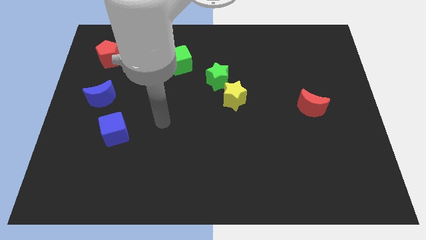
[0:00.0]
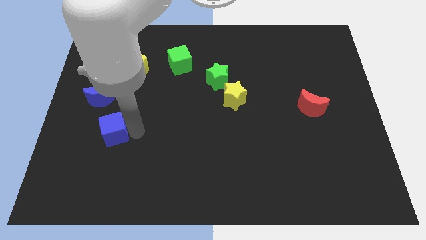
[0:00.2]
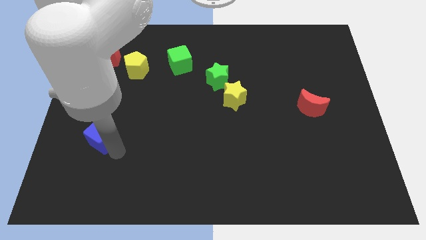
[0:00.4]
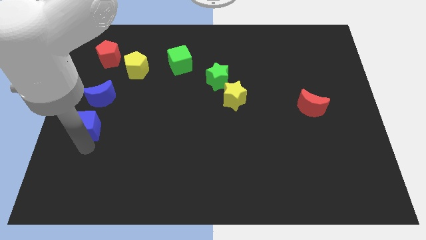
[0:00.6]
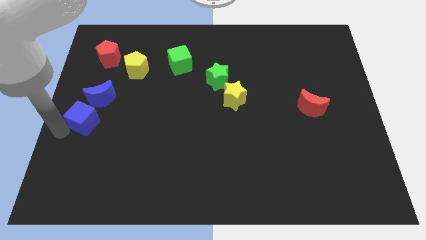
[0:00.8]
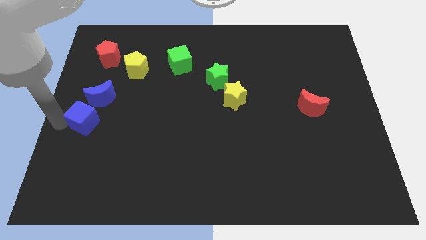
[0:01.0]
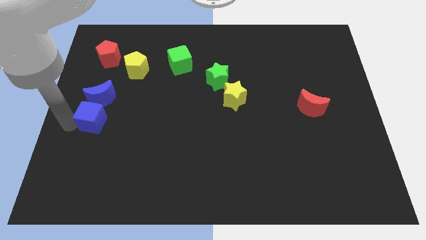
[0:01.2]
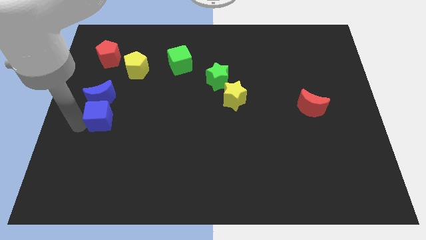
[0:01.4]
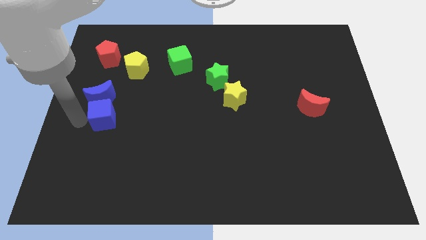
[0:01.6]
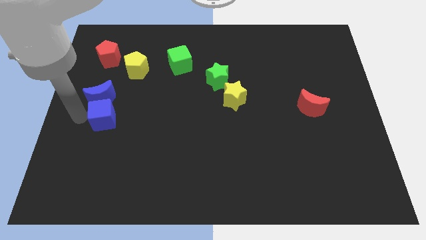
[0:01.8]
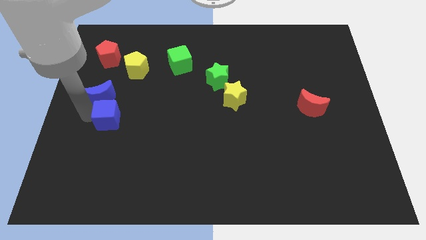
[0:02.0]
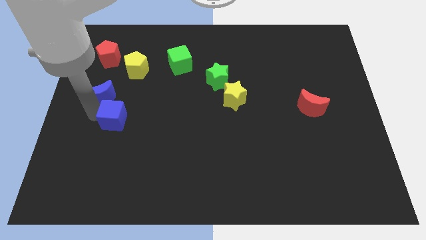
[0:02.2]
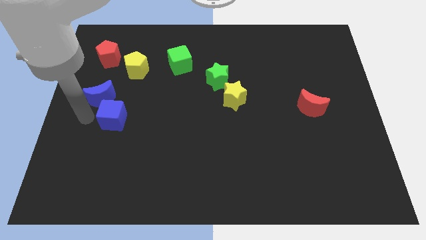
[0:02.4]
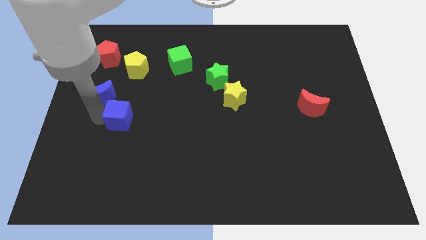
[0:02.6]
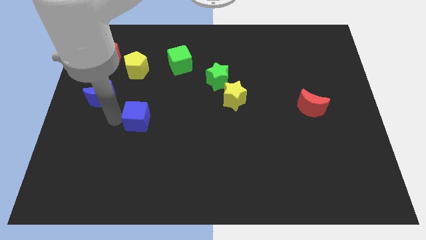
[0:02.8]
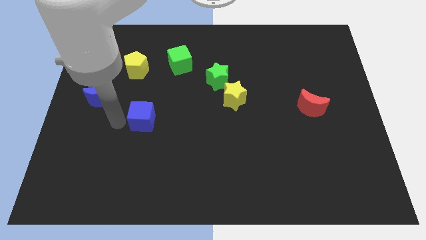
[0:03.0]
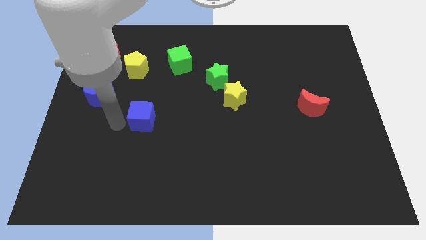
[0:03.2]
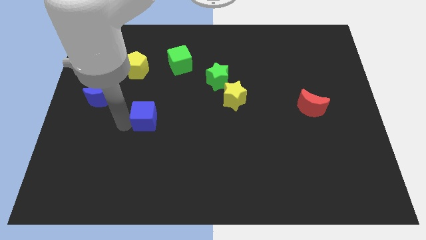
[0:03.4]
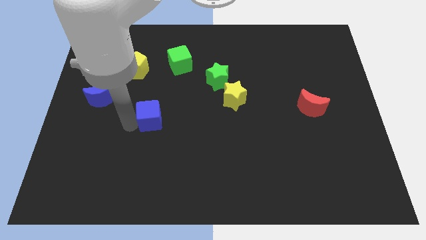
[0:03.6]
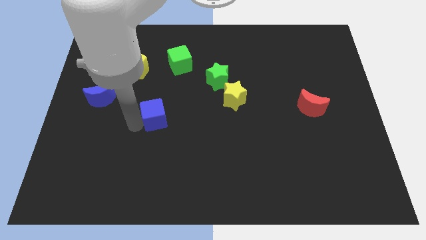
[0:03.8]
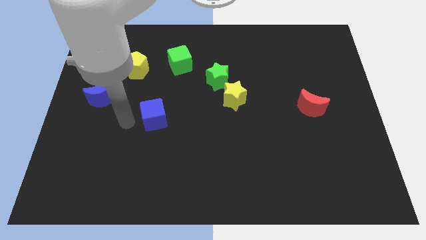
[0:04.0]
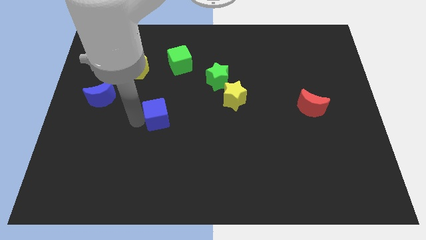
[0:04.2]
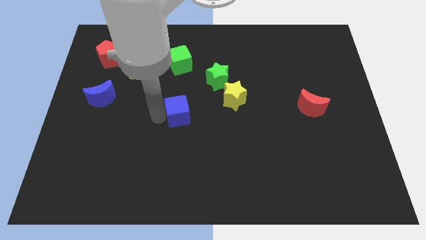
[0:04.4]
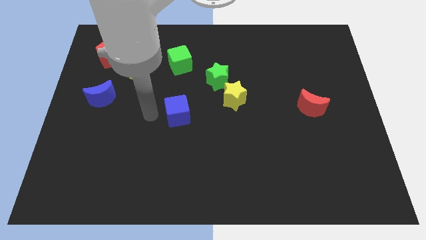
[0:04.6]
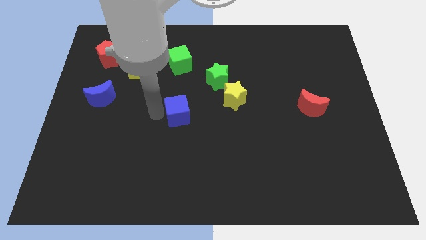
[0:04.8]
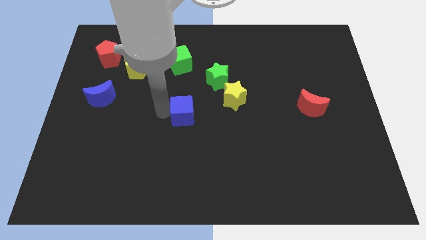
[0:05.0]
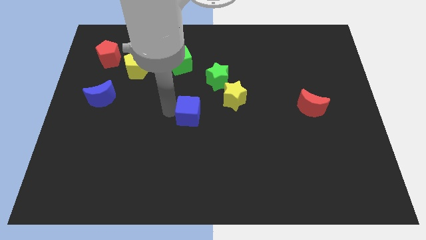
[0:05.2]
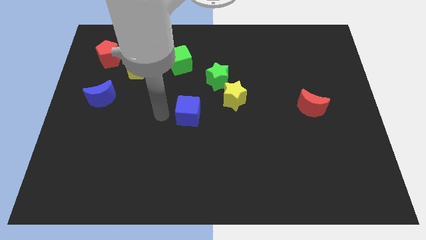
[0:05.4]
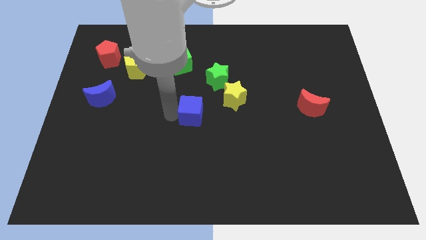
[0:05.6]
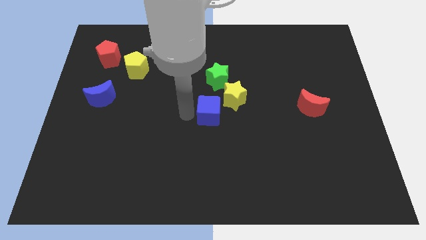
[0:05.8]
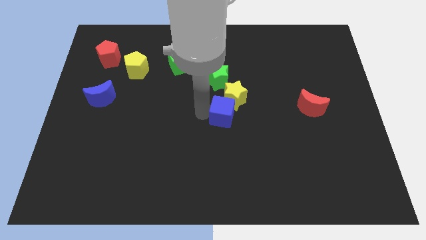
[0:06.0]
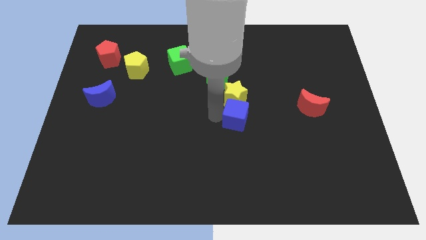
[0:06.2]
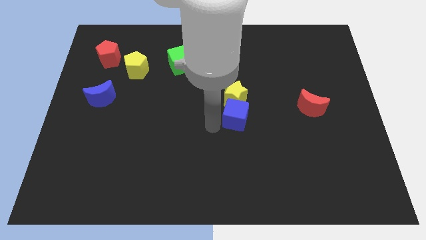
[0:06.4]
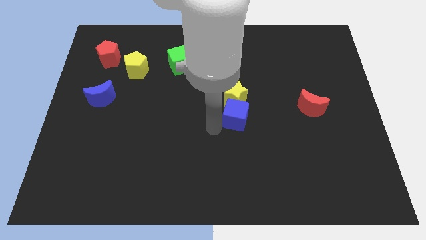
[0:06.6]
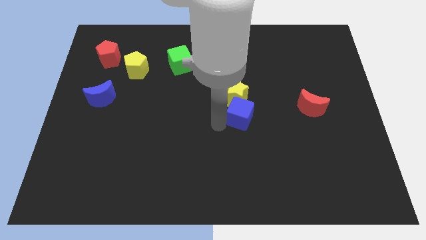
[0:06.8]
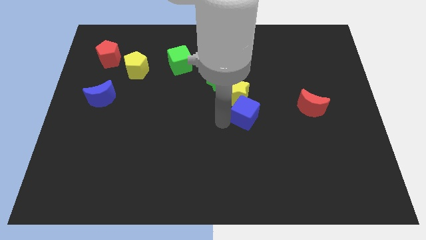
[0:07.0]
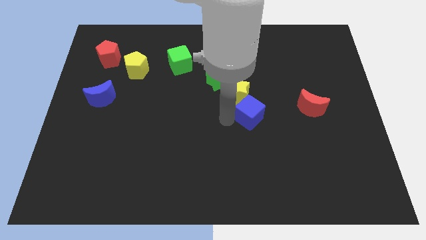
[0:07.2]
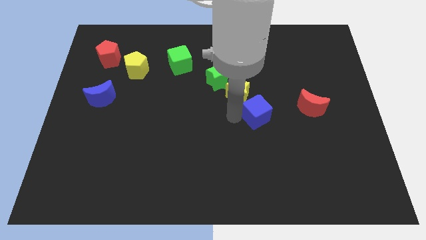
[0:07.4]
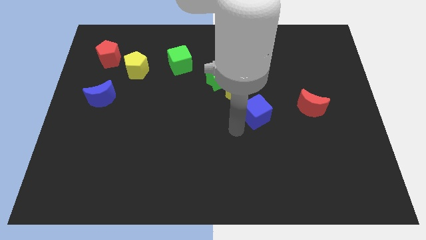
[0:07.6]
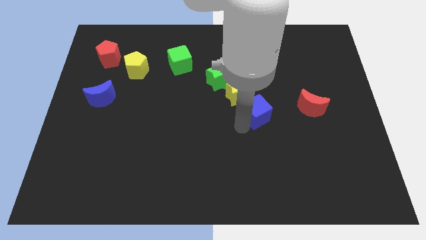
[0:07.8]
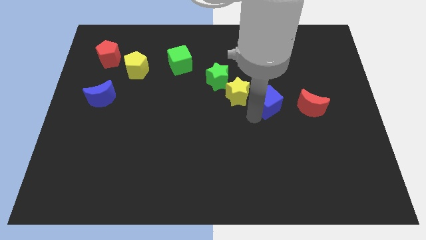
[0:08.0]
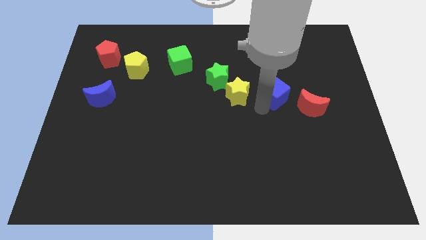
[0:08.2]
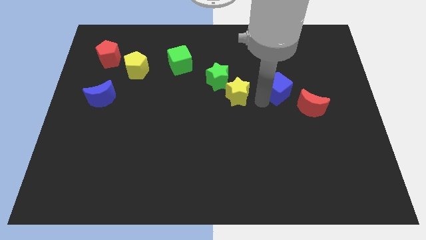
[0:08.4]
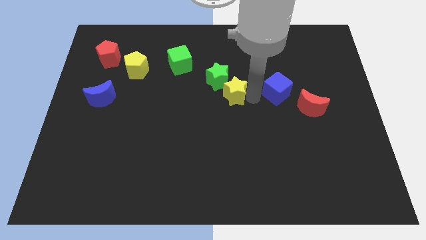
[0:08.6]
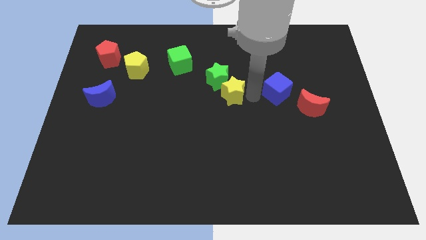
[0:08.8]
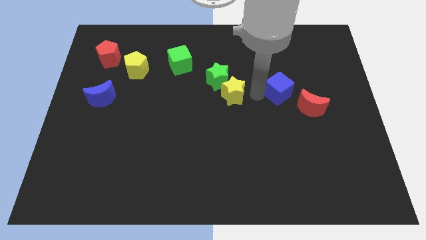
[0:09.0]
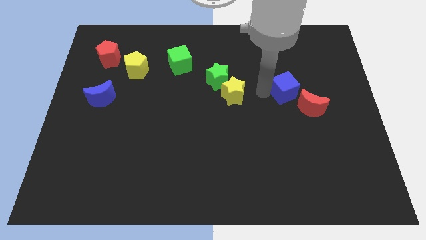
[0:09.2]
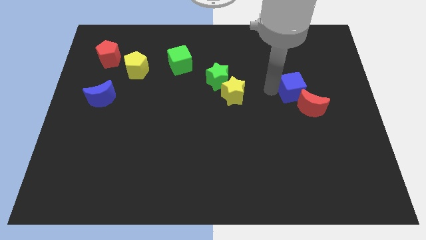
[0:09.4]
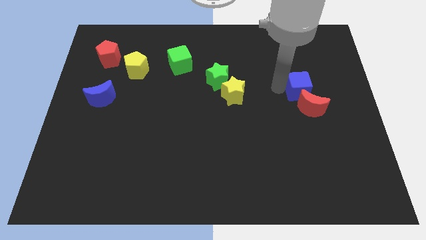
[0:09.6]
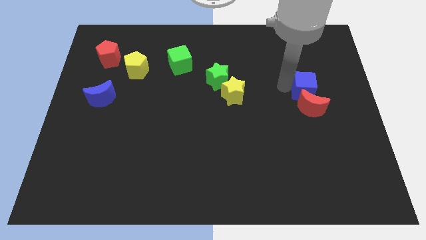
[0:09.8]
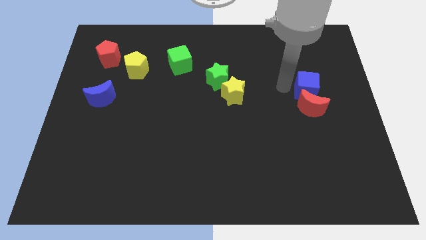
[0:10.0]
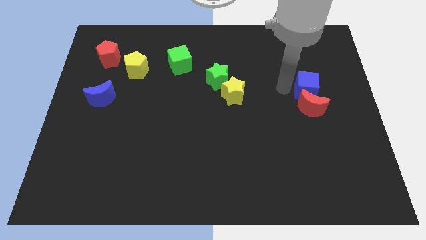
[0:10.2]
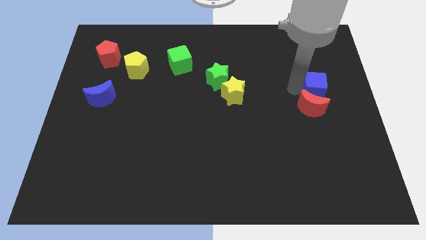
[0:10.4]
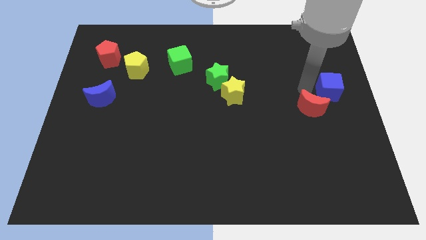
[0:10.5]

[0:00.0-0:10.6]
push the blue cube to the center right

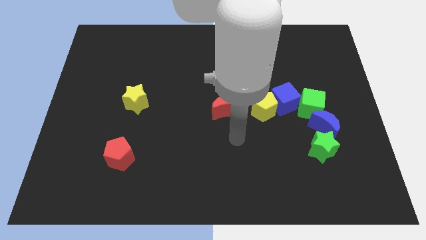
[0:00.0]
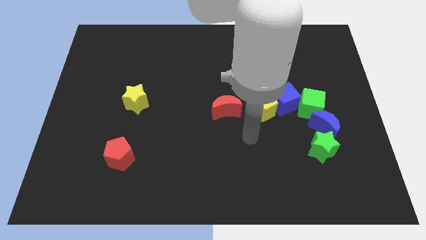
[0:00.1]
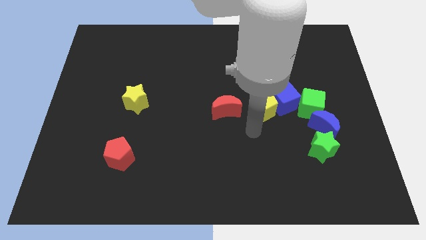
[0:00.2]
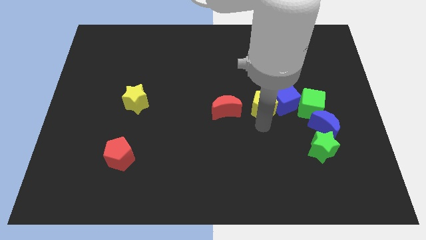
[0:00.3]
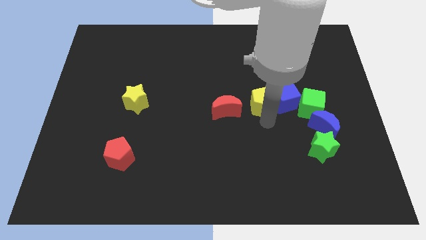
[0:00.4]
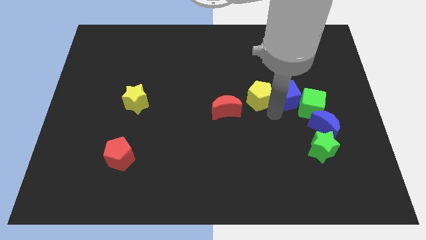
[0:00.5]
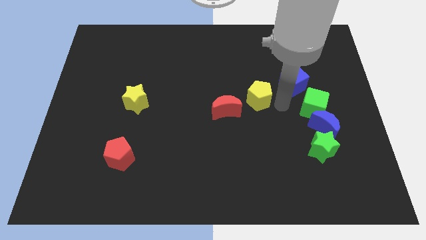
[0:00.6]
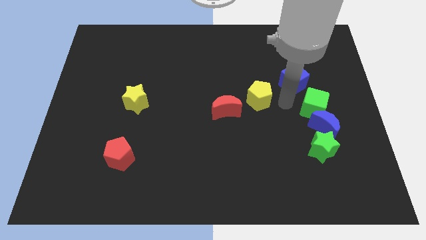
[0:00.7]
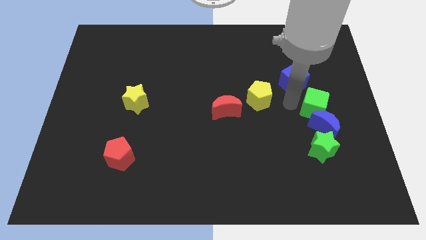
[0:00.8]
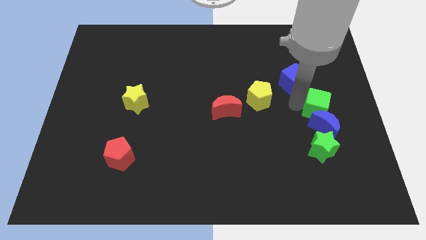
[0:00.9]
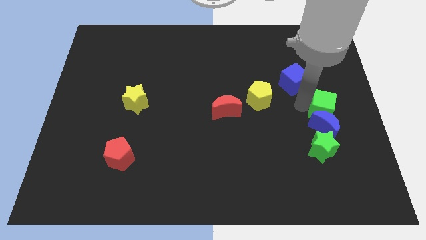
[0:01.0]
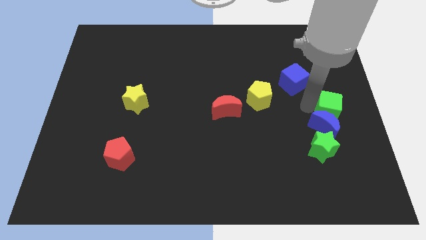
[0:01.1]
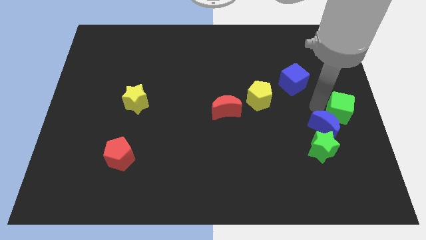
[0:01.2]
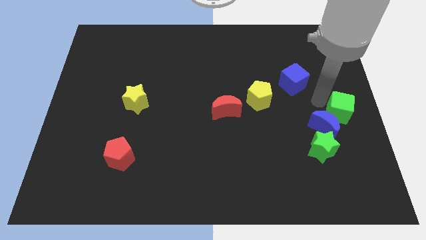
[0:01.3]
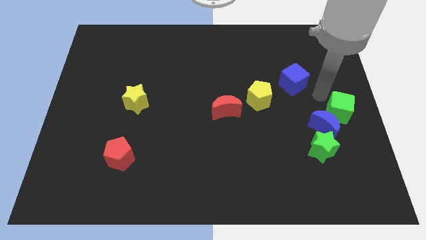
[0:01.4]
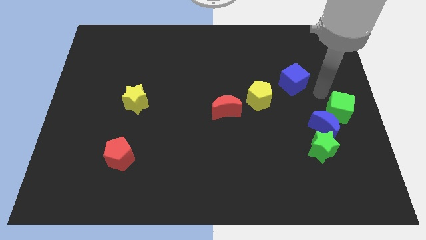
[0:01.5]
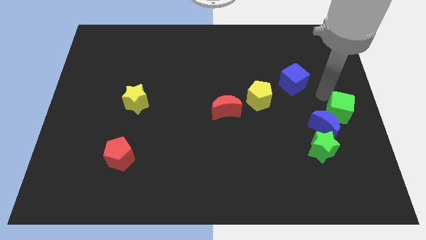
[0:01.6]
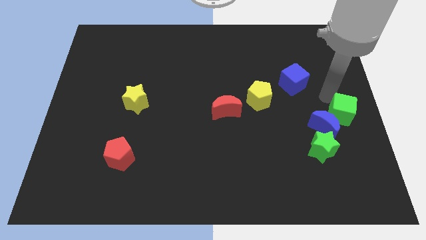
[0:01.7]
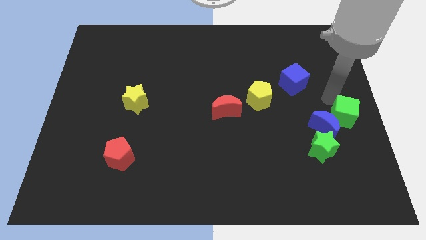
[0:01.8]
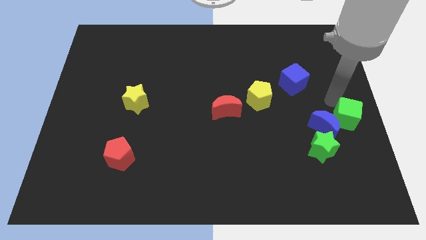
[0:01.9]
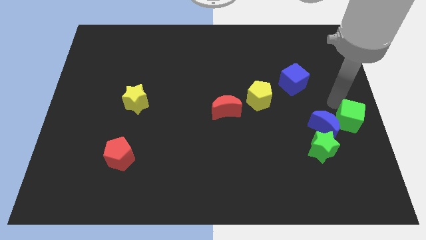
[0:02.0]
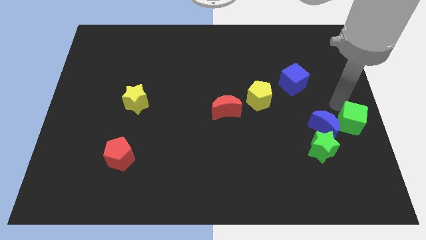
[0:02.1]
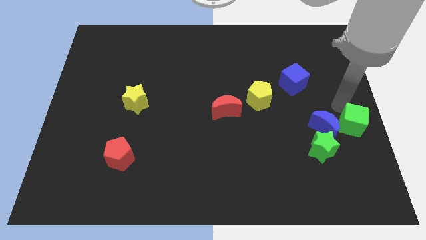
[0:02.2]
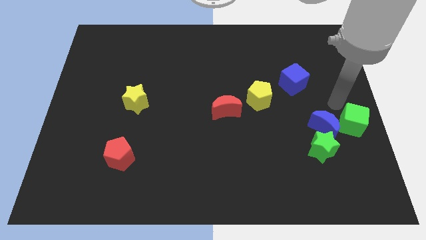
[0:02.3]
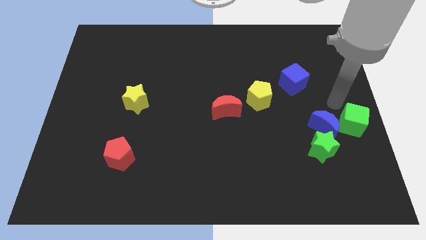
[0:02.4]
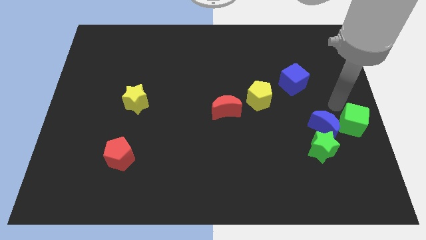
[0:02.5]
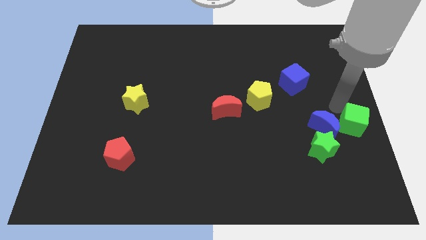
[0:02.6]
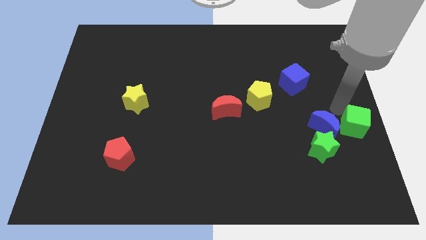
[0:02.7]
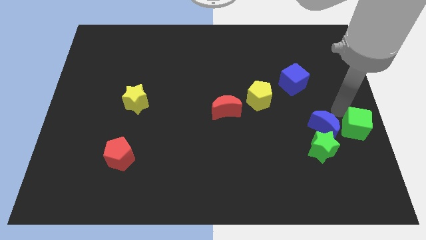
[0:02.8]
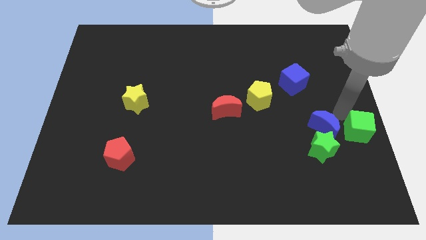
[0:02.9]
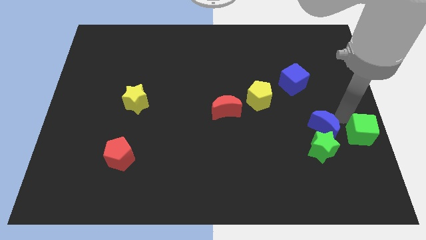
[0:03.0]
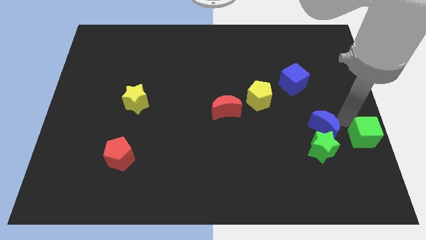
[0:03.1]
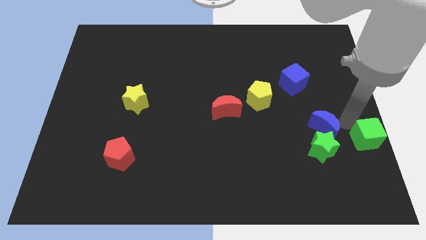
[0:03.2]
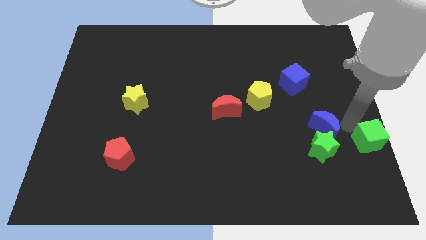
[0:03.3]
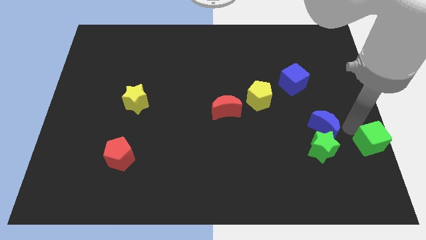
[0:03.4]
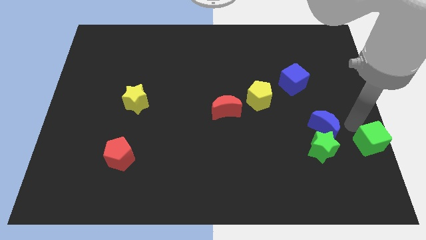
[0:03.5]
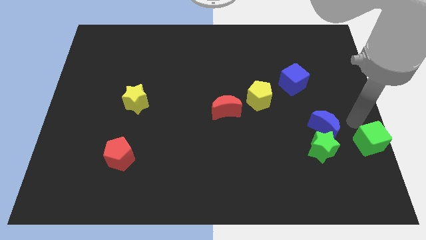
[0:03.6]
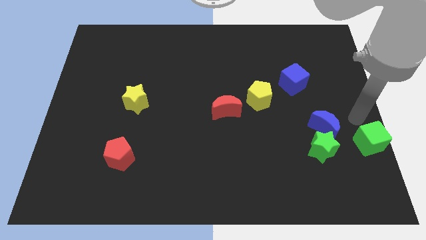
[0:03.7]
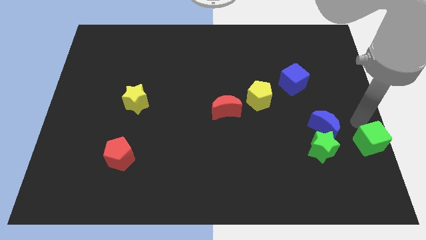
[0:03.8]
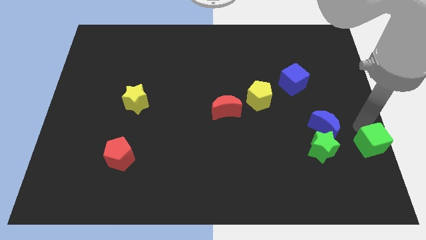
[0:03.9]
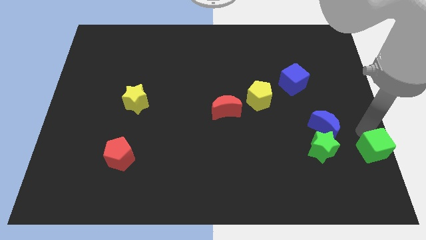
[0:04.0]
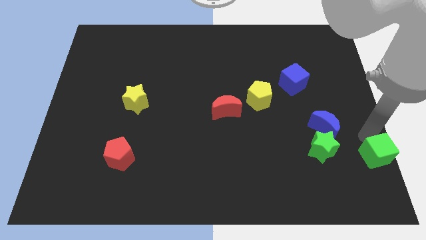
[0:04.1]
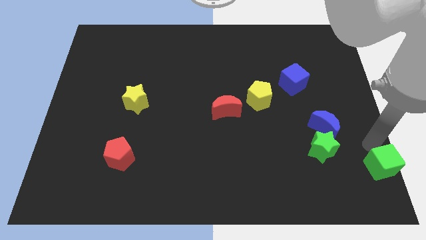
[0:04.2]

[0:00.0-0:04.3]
push the green cube to the bottom right
